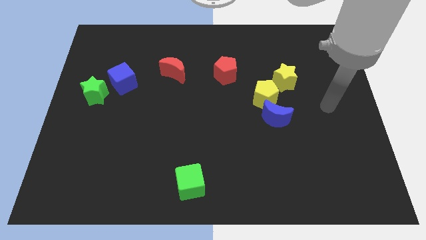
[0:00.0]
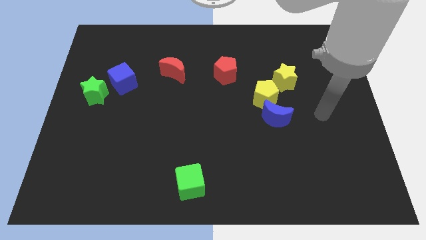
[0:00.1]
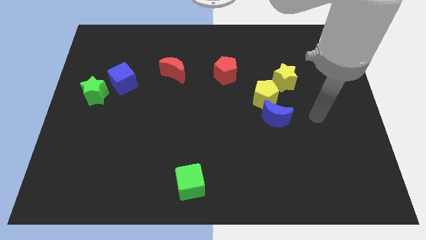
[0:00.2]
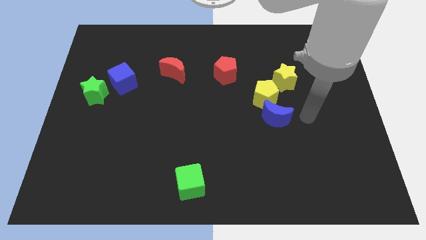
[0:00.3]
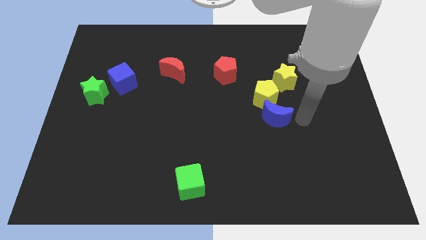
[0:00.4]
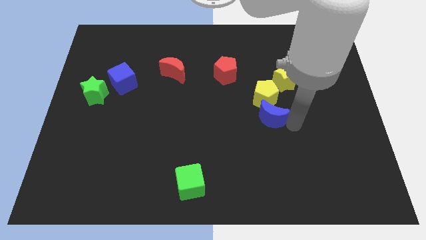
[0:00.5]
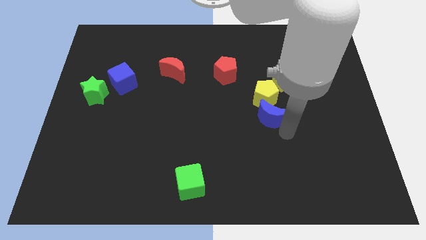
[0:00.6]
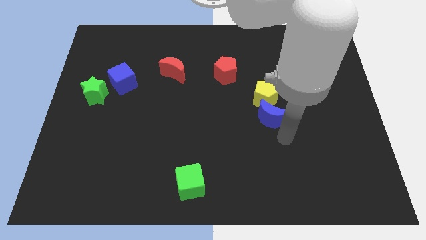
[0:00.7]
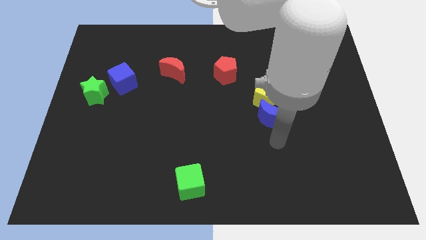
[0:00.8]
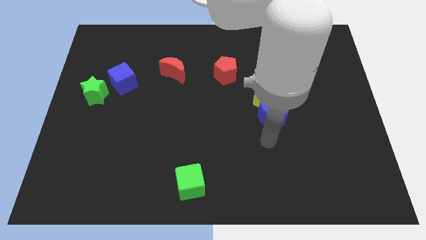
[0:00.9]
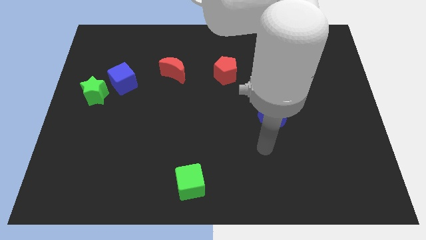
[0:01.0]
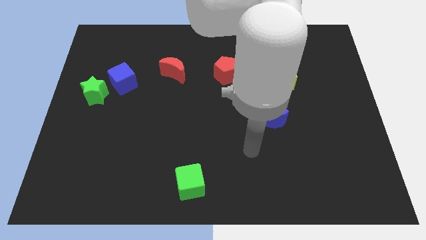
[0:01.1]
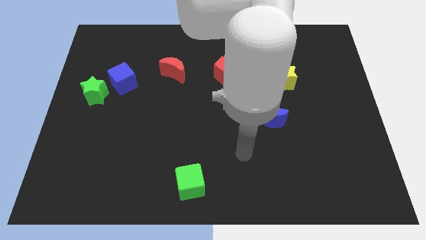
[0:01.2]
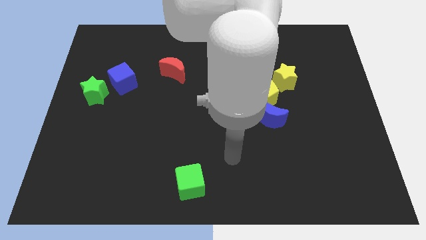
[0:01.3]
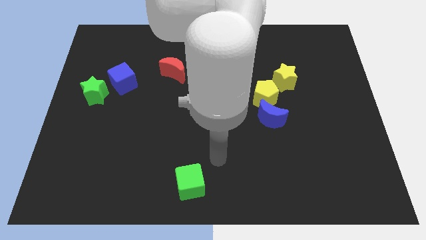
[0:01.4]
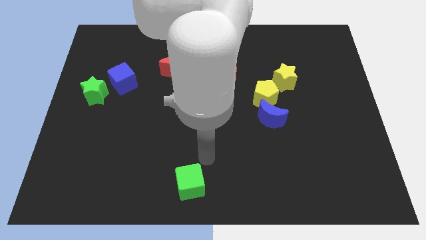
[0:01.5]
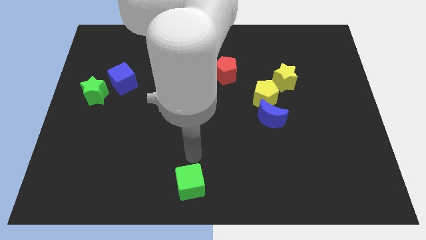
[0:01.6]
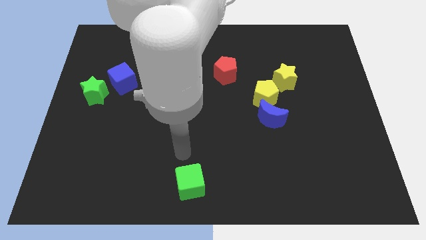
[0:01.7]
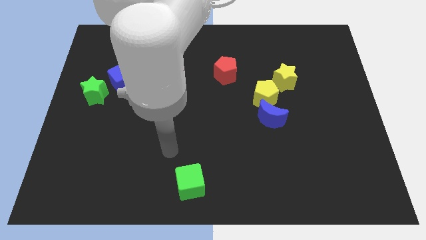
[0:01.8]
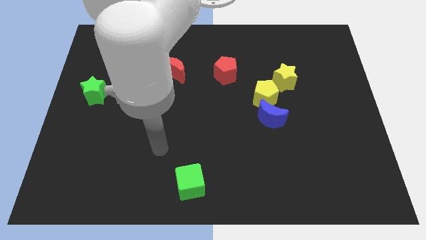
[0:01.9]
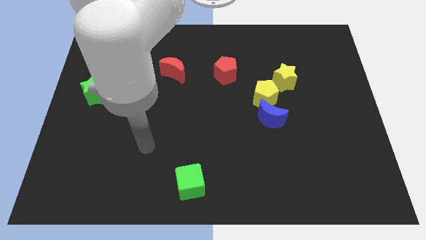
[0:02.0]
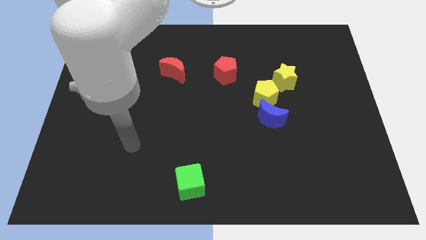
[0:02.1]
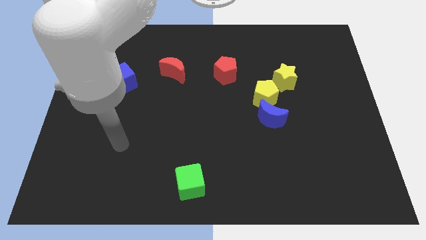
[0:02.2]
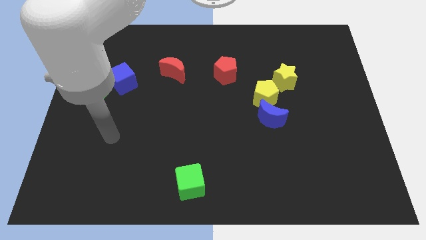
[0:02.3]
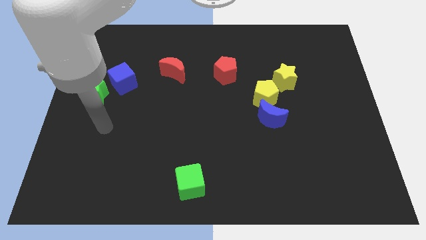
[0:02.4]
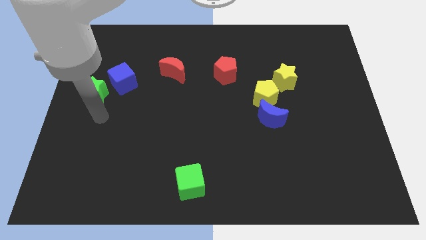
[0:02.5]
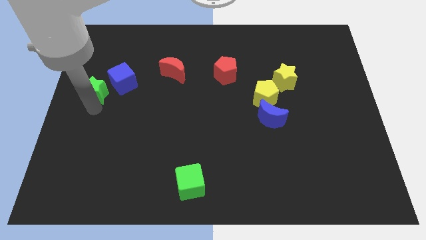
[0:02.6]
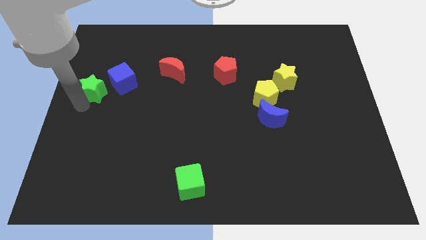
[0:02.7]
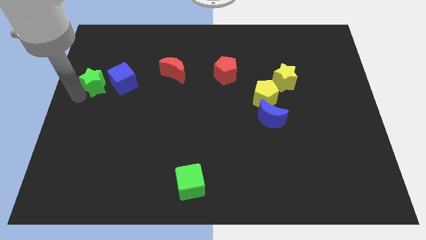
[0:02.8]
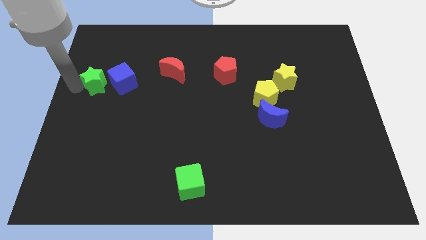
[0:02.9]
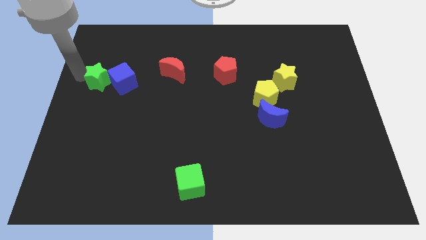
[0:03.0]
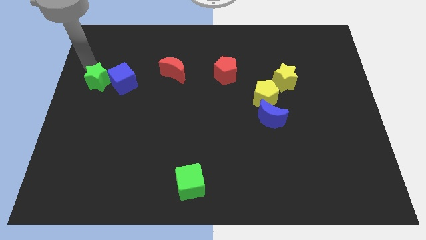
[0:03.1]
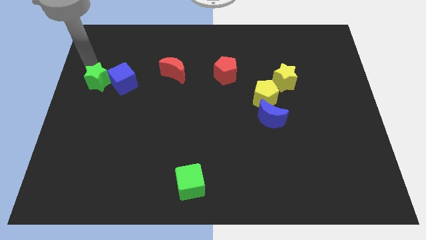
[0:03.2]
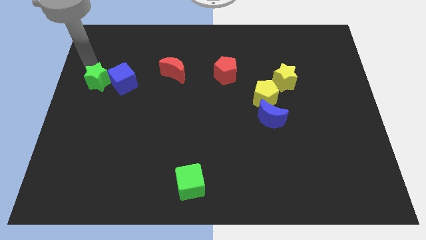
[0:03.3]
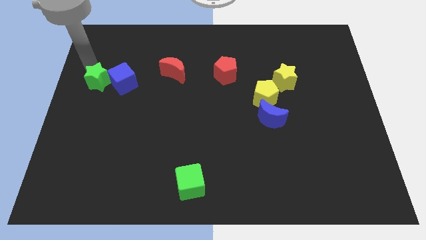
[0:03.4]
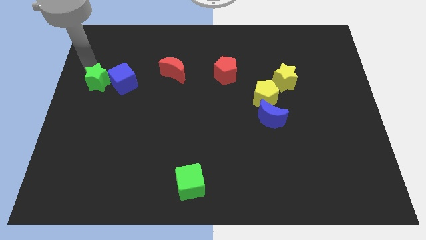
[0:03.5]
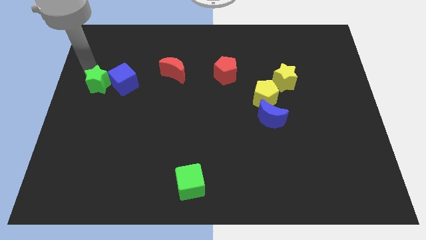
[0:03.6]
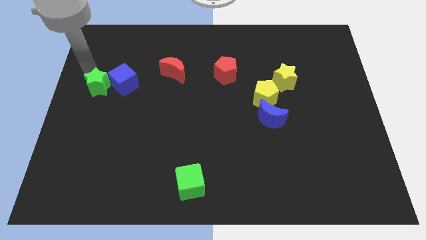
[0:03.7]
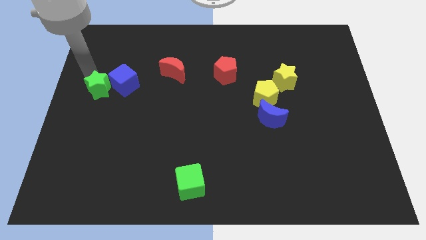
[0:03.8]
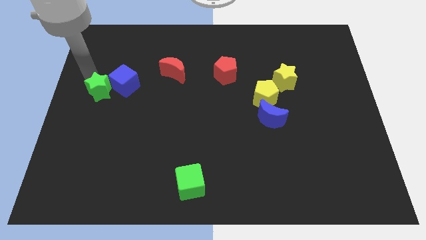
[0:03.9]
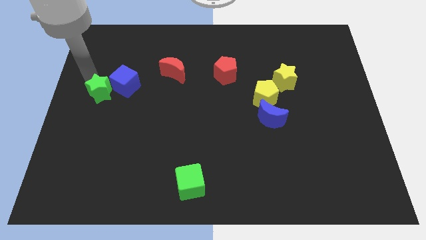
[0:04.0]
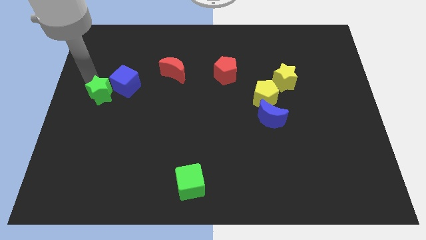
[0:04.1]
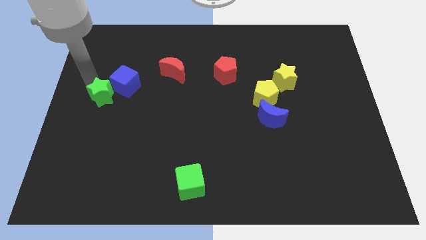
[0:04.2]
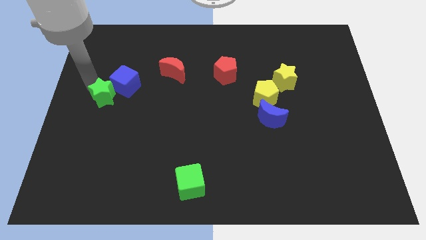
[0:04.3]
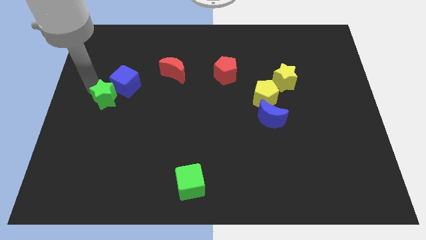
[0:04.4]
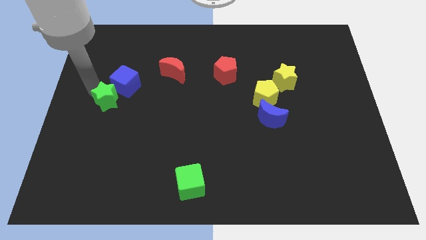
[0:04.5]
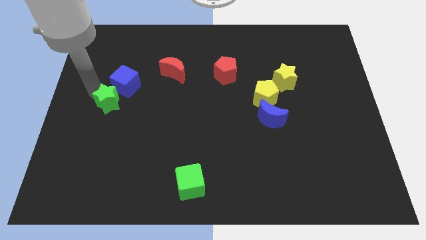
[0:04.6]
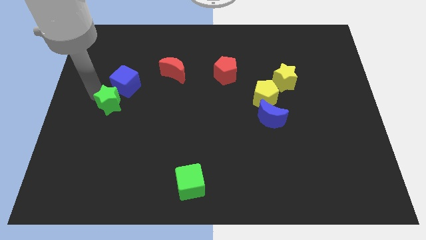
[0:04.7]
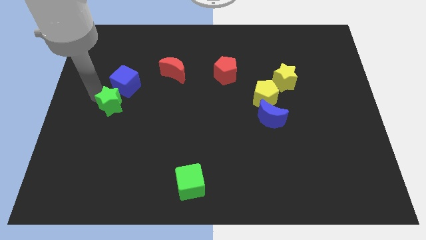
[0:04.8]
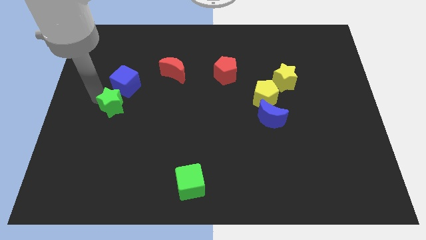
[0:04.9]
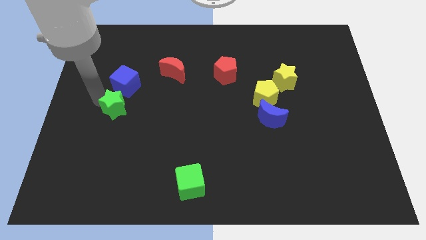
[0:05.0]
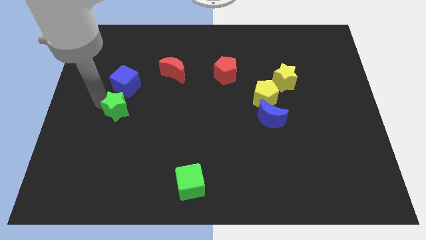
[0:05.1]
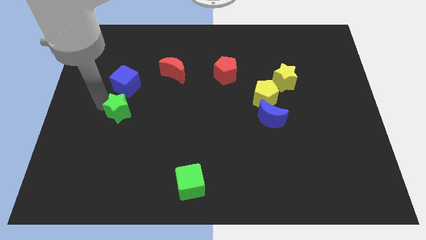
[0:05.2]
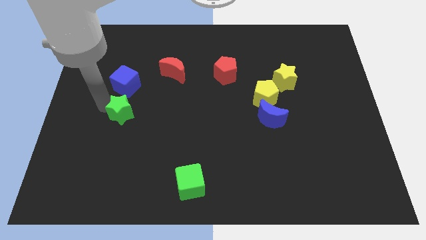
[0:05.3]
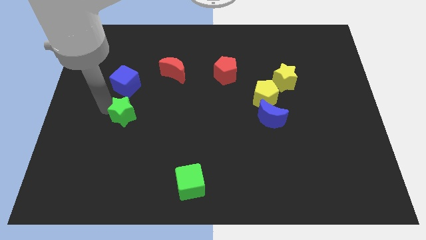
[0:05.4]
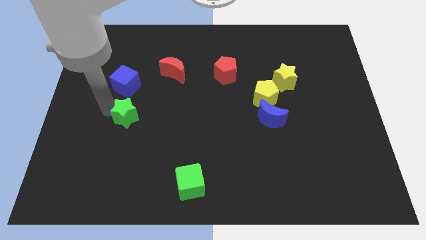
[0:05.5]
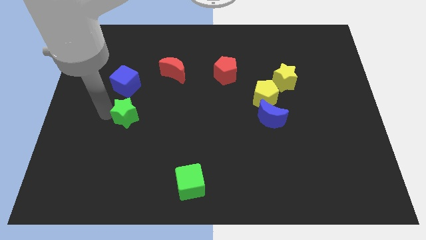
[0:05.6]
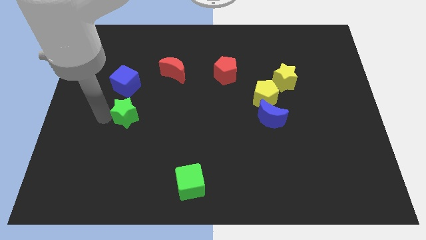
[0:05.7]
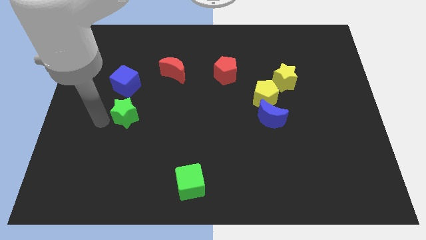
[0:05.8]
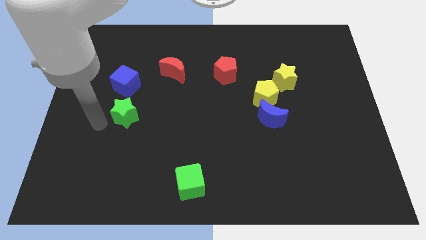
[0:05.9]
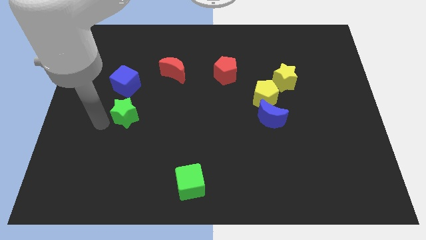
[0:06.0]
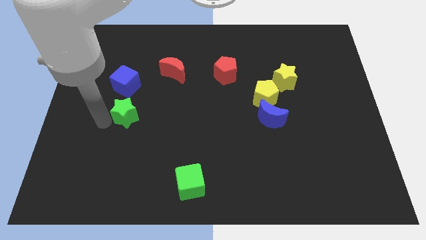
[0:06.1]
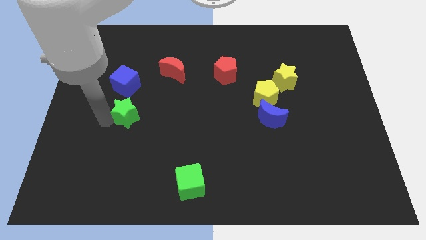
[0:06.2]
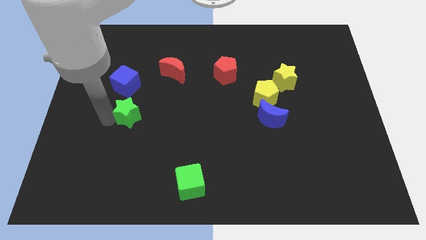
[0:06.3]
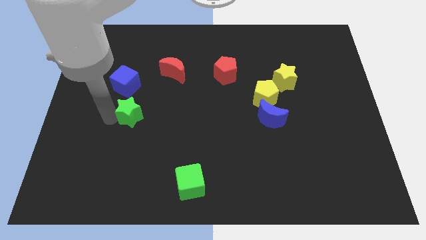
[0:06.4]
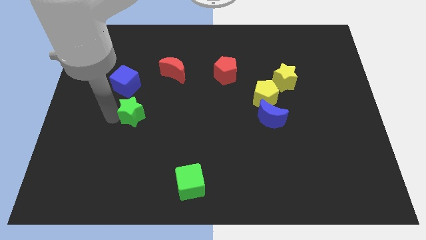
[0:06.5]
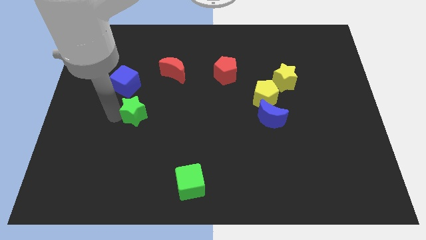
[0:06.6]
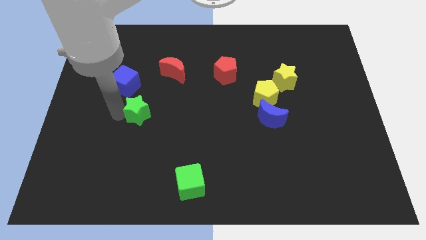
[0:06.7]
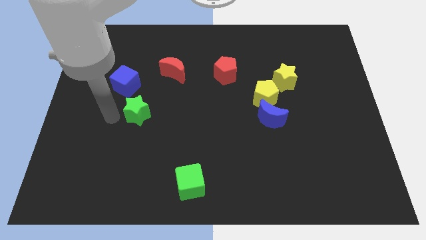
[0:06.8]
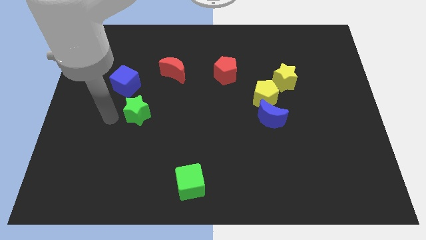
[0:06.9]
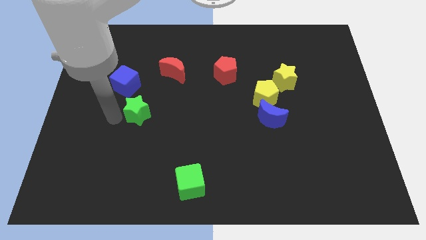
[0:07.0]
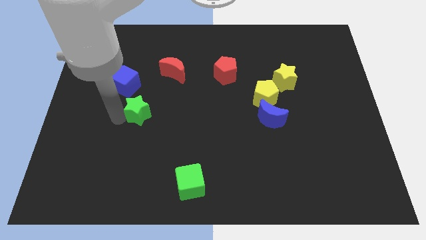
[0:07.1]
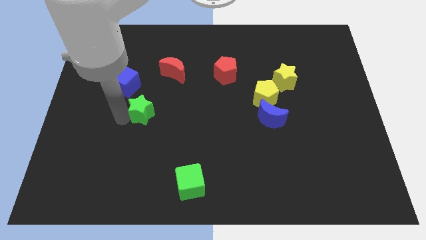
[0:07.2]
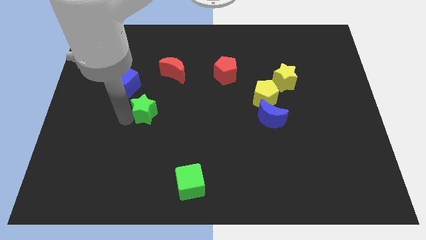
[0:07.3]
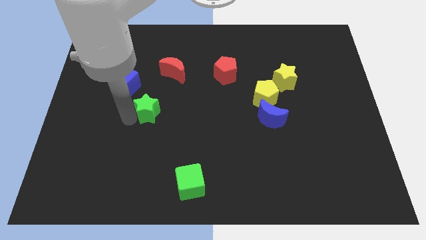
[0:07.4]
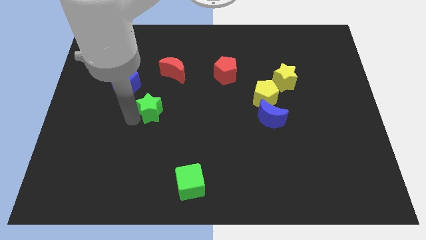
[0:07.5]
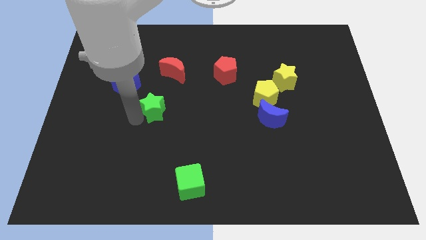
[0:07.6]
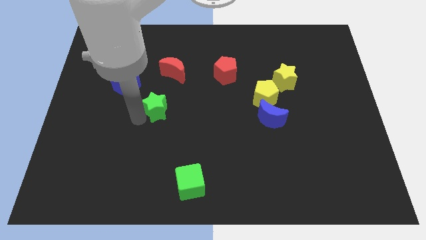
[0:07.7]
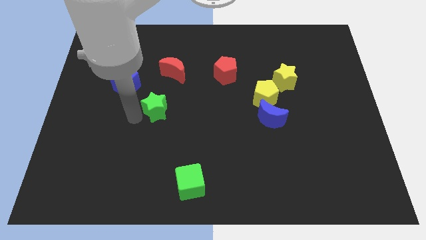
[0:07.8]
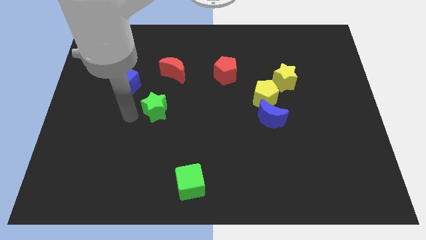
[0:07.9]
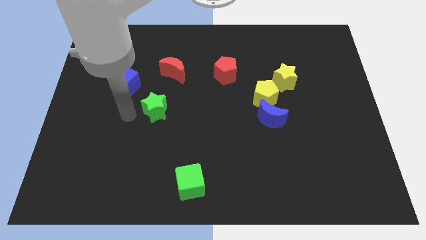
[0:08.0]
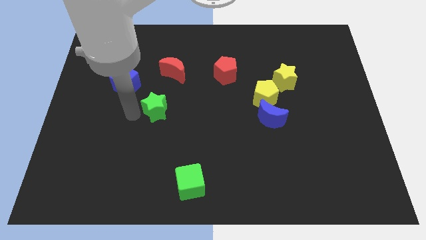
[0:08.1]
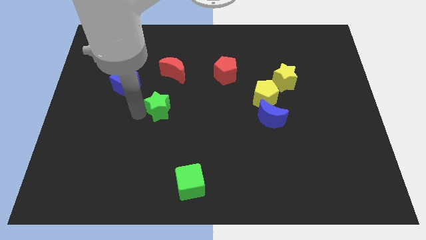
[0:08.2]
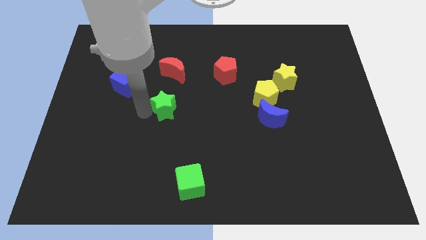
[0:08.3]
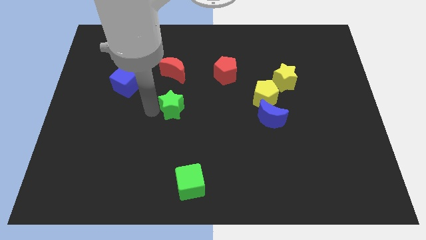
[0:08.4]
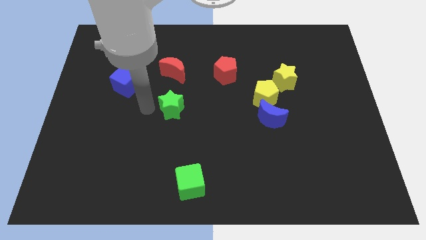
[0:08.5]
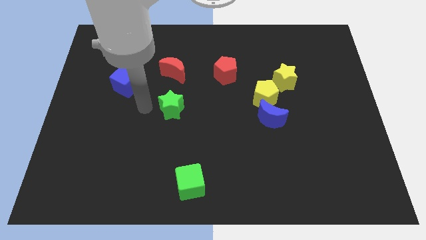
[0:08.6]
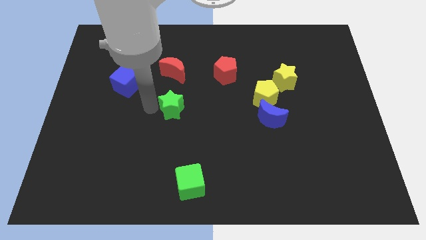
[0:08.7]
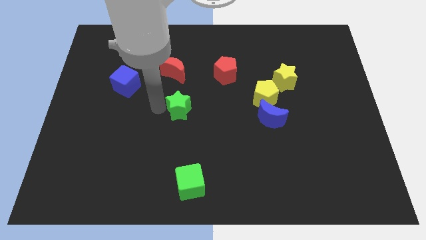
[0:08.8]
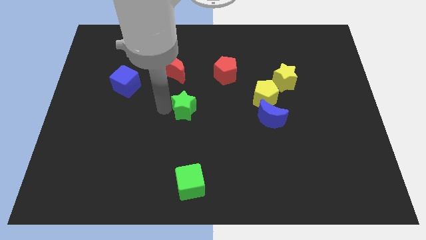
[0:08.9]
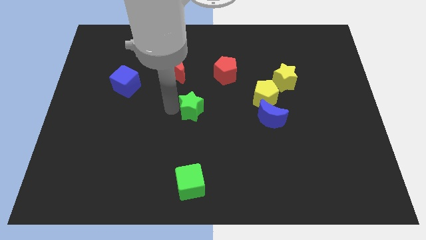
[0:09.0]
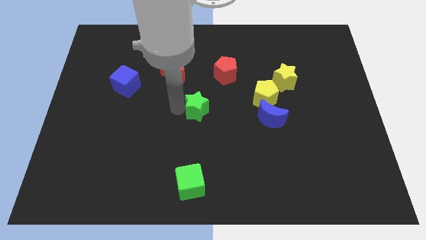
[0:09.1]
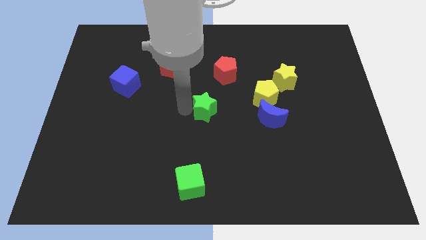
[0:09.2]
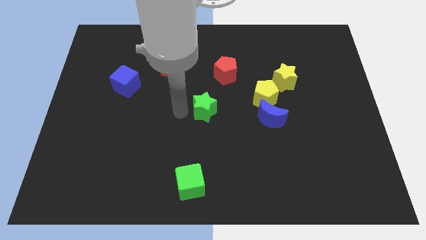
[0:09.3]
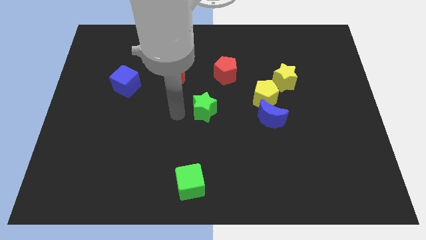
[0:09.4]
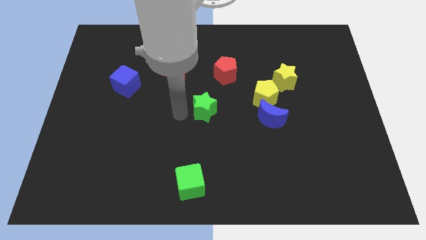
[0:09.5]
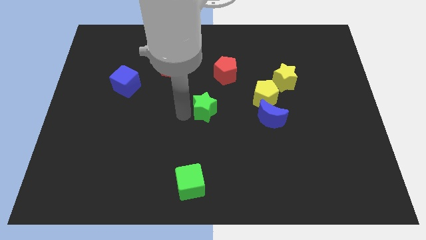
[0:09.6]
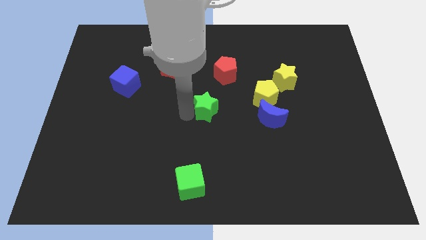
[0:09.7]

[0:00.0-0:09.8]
slide the green star below the red pentagon
